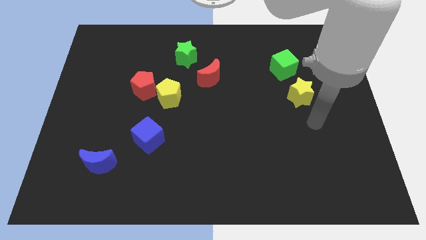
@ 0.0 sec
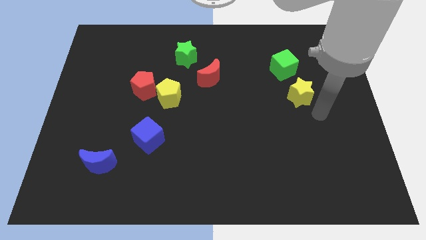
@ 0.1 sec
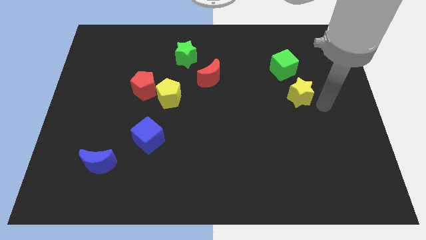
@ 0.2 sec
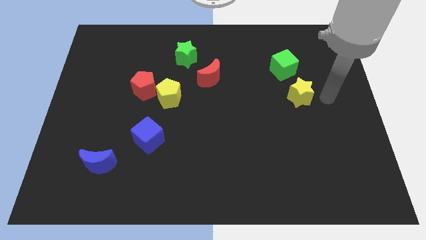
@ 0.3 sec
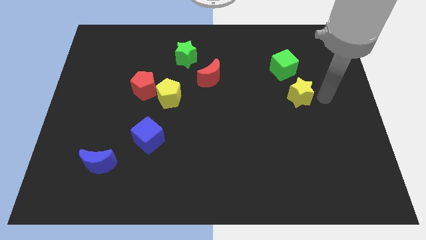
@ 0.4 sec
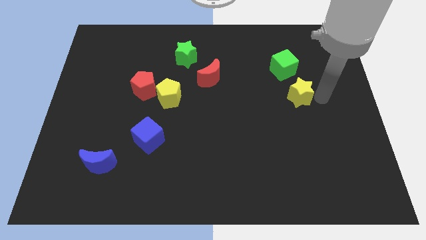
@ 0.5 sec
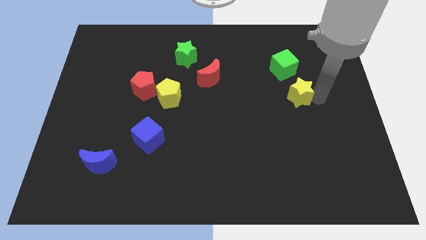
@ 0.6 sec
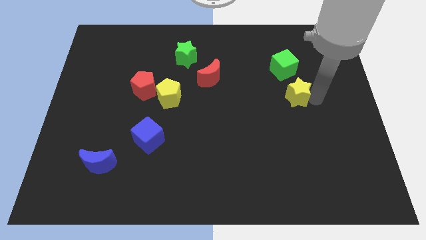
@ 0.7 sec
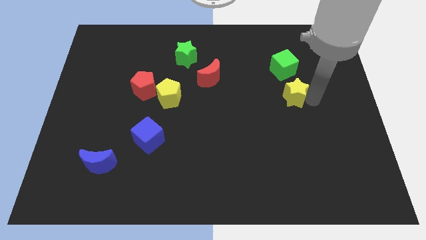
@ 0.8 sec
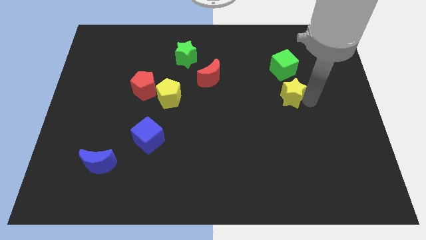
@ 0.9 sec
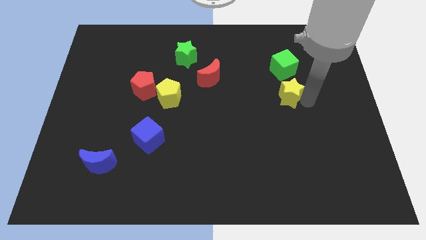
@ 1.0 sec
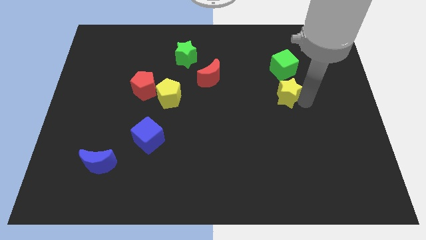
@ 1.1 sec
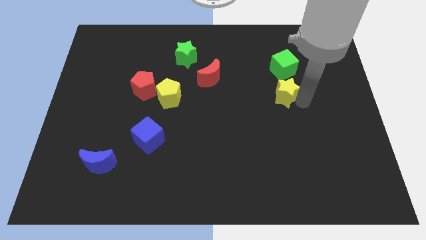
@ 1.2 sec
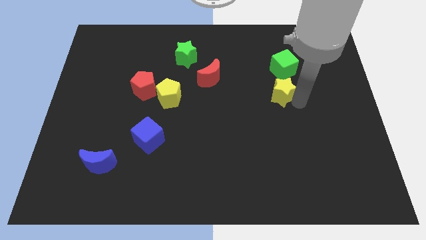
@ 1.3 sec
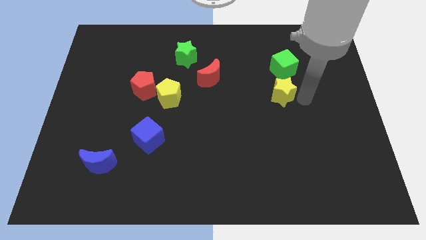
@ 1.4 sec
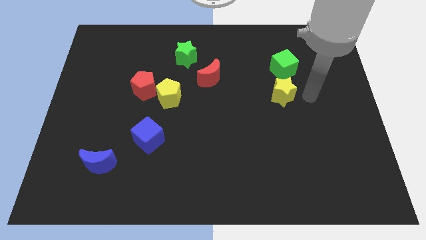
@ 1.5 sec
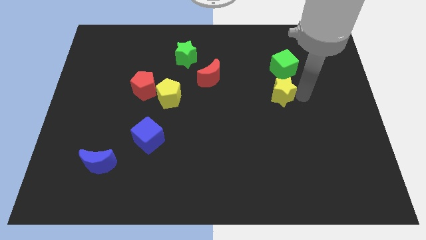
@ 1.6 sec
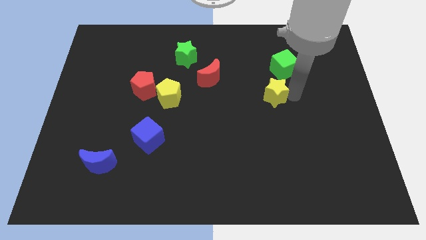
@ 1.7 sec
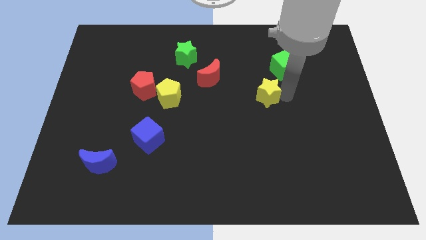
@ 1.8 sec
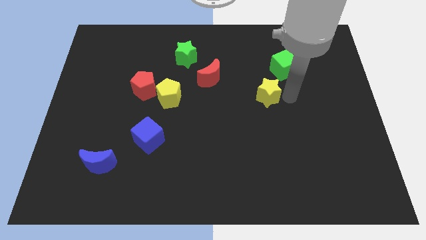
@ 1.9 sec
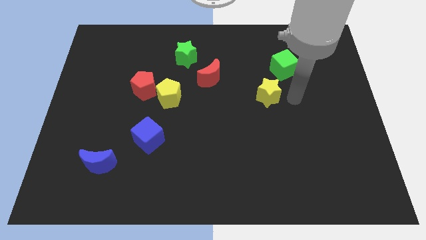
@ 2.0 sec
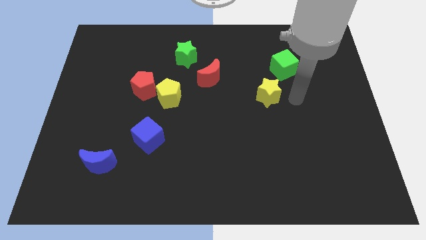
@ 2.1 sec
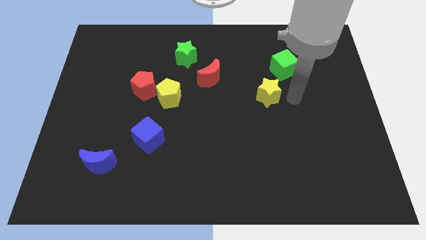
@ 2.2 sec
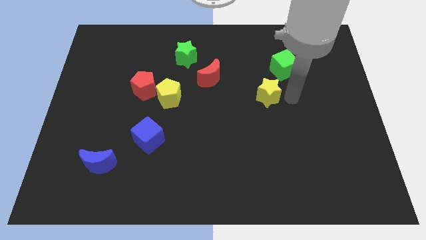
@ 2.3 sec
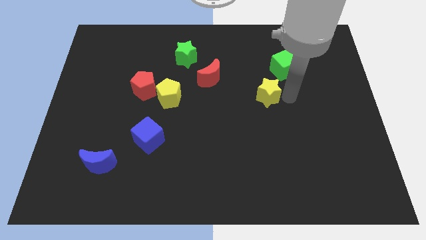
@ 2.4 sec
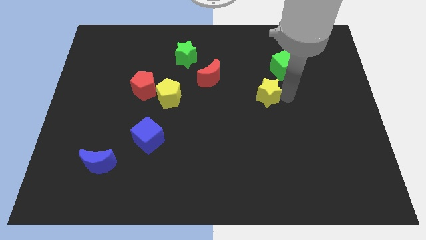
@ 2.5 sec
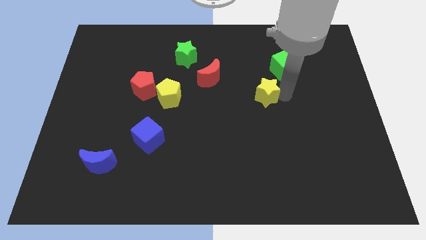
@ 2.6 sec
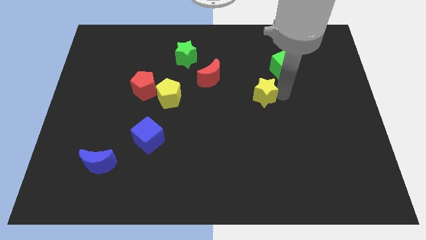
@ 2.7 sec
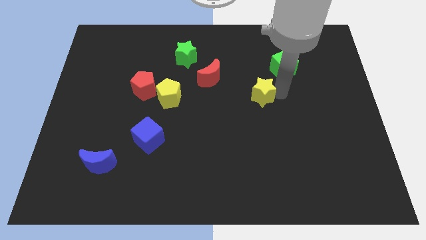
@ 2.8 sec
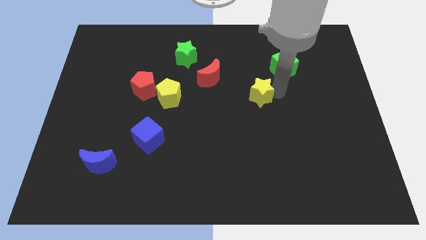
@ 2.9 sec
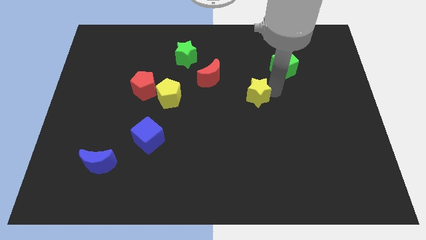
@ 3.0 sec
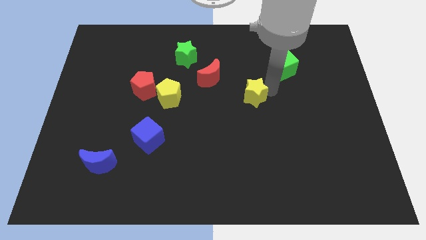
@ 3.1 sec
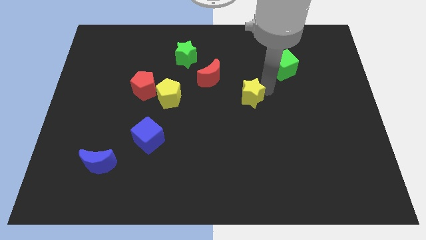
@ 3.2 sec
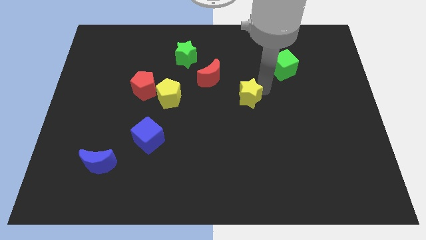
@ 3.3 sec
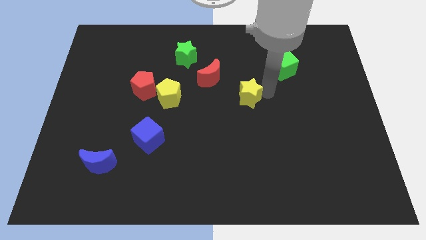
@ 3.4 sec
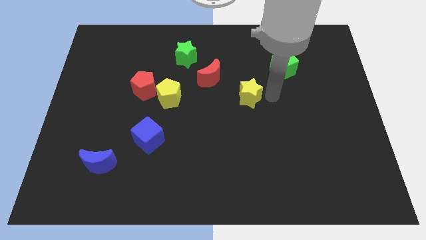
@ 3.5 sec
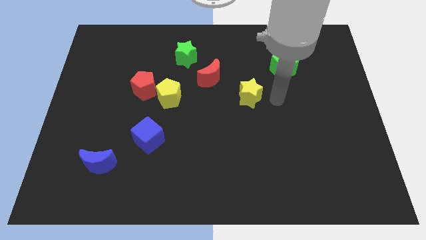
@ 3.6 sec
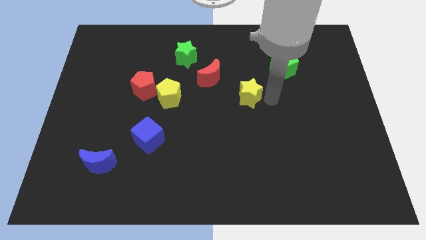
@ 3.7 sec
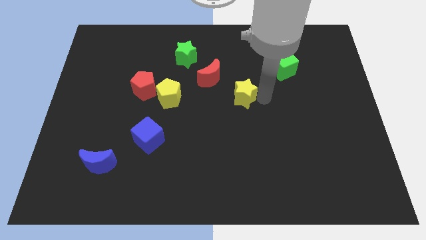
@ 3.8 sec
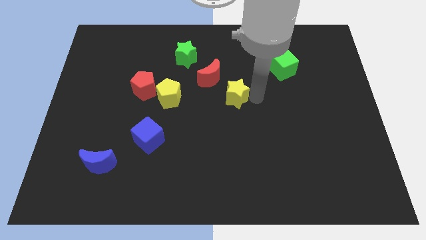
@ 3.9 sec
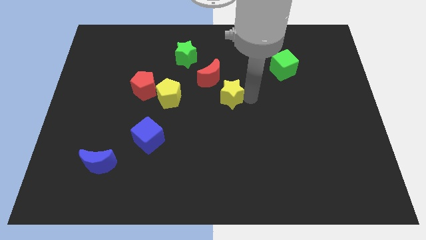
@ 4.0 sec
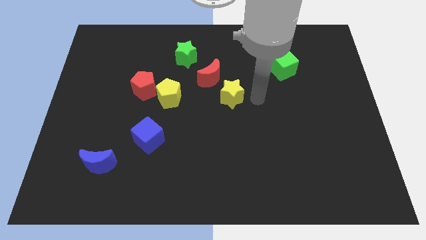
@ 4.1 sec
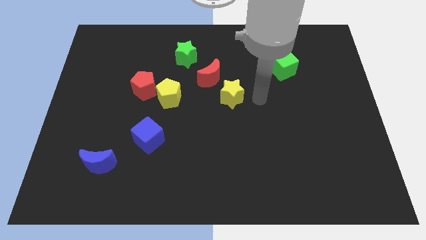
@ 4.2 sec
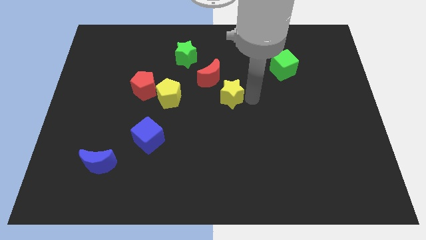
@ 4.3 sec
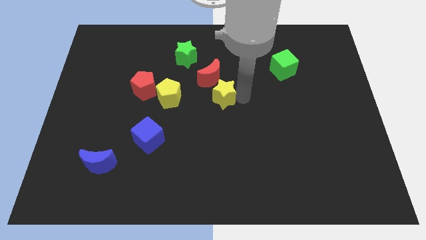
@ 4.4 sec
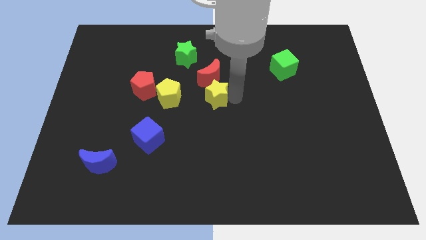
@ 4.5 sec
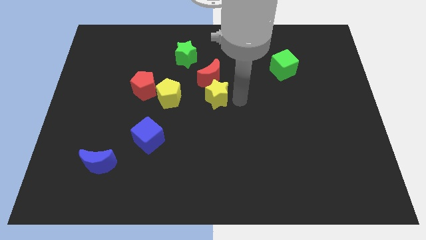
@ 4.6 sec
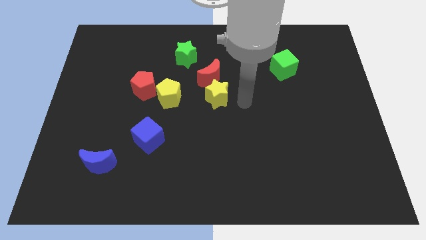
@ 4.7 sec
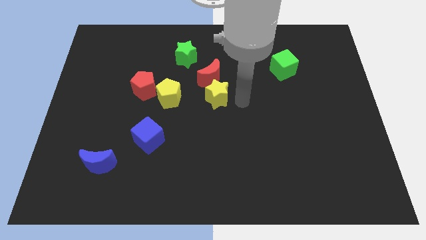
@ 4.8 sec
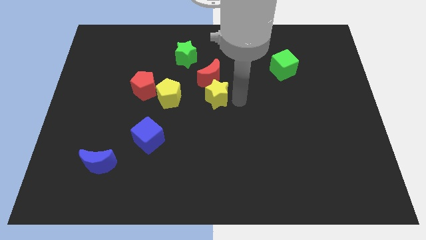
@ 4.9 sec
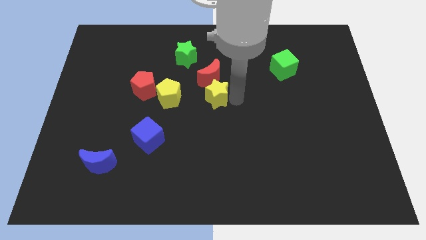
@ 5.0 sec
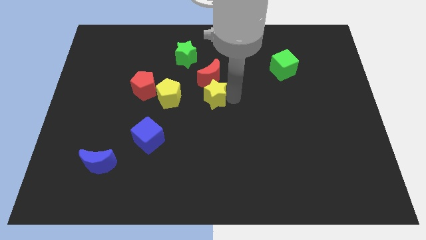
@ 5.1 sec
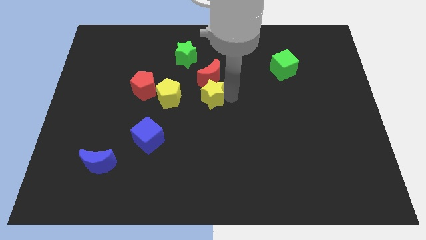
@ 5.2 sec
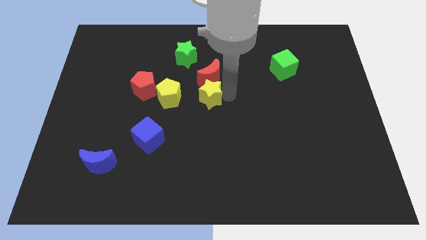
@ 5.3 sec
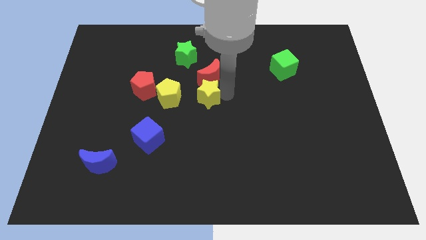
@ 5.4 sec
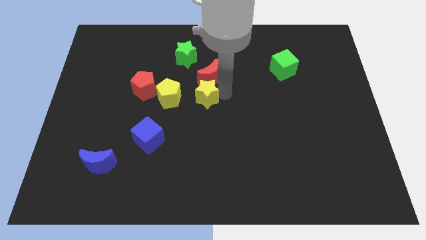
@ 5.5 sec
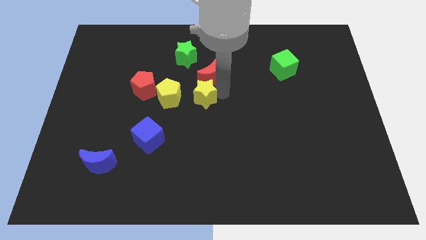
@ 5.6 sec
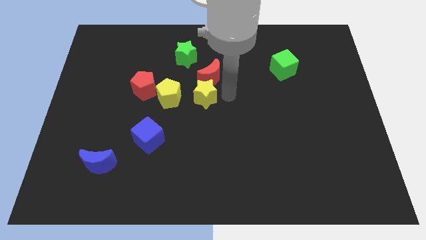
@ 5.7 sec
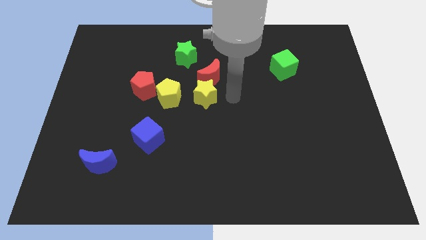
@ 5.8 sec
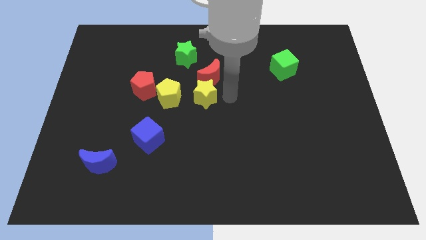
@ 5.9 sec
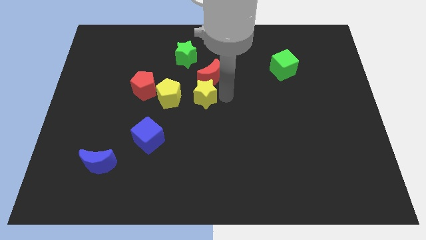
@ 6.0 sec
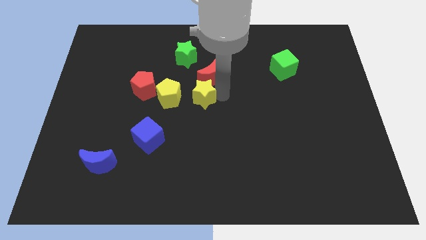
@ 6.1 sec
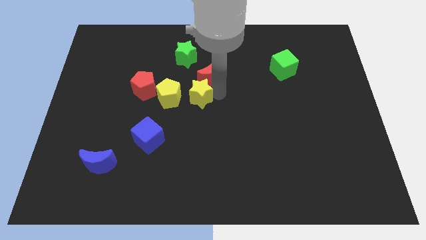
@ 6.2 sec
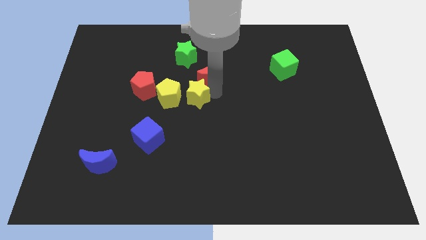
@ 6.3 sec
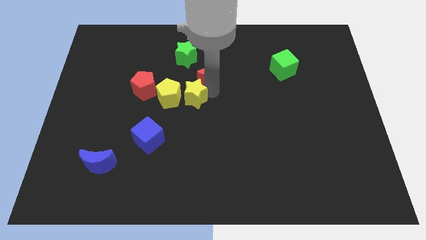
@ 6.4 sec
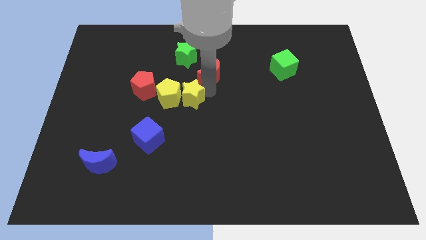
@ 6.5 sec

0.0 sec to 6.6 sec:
slide the yellow star close to the yellow pentagon

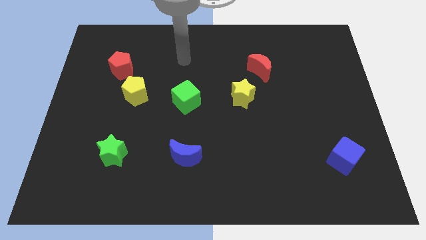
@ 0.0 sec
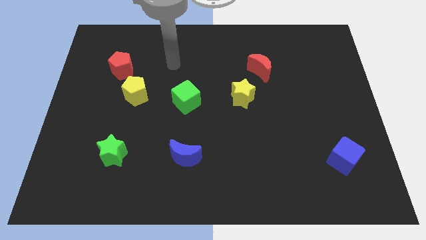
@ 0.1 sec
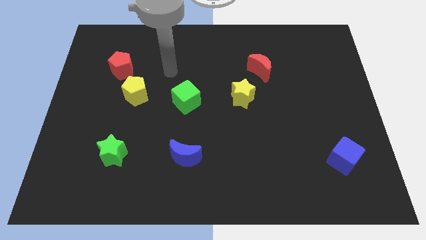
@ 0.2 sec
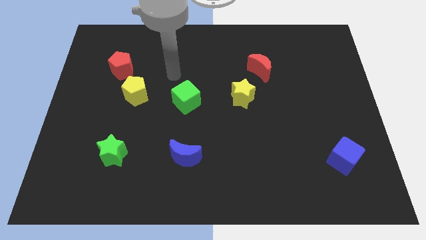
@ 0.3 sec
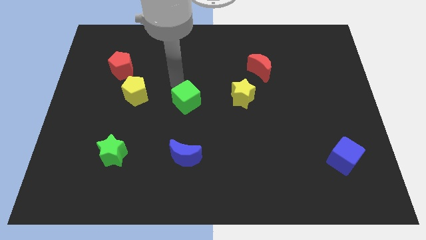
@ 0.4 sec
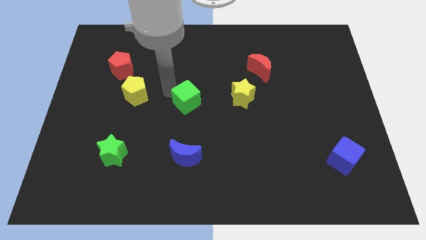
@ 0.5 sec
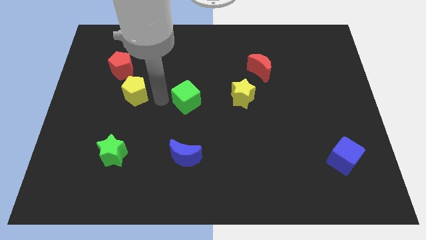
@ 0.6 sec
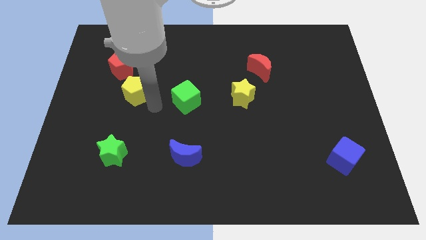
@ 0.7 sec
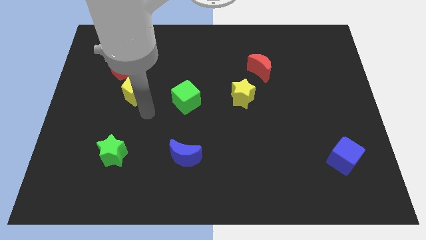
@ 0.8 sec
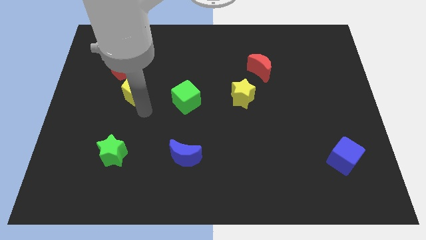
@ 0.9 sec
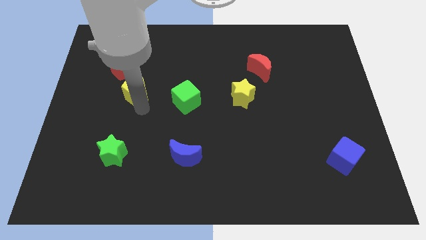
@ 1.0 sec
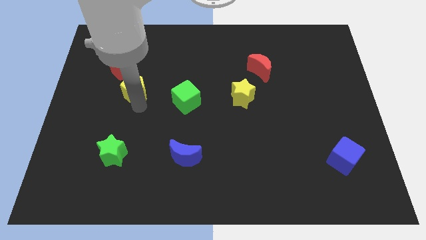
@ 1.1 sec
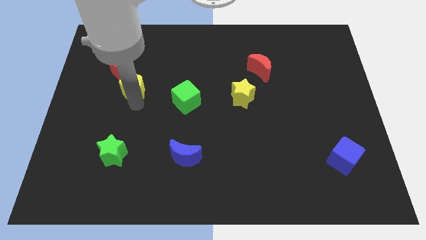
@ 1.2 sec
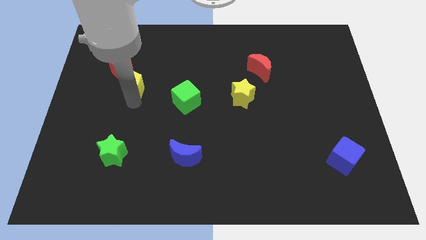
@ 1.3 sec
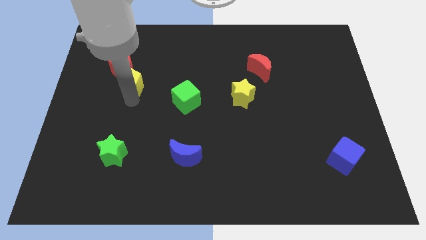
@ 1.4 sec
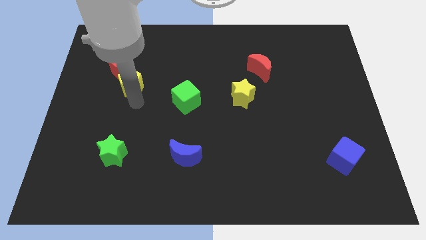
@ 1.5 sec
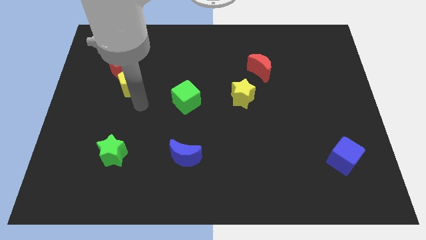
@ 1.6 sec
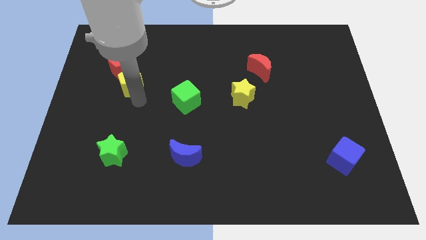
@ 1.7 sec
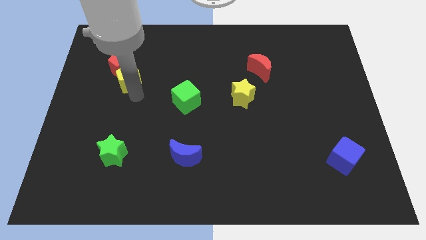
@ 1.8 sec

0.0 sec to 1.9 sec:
put the yellow pentagon close to the red pentagon
